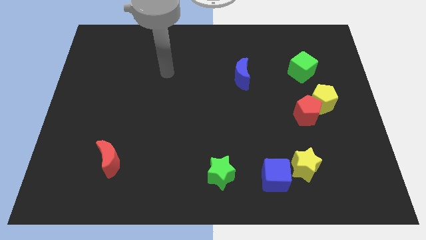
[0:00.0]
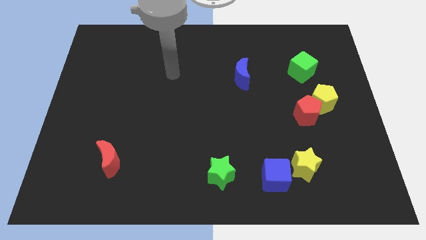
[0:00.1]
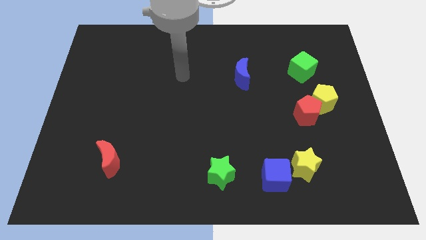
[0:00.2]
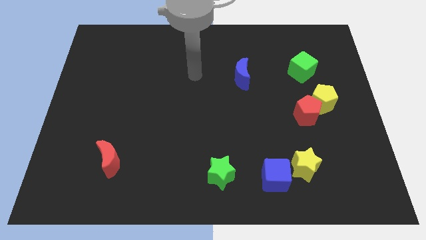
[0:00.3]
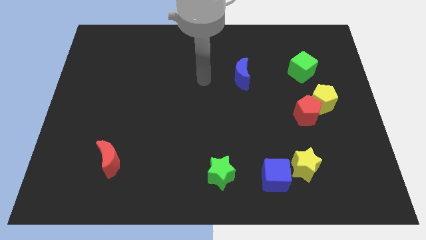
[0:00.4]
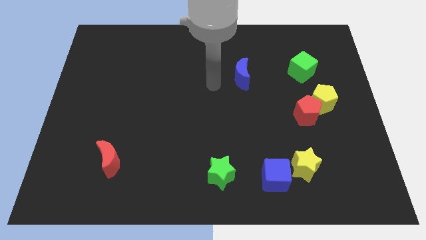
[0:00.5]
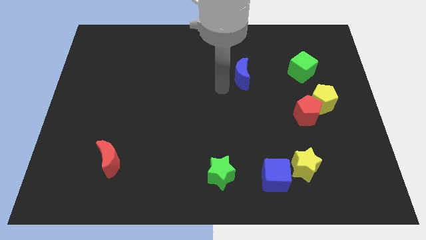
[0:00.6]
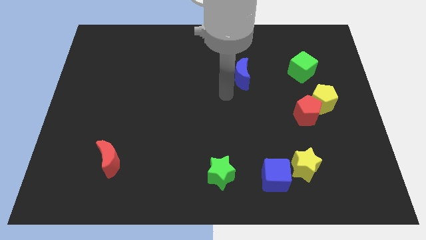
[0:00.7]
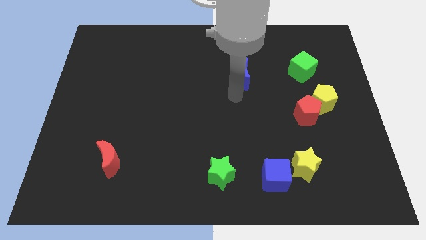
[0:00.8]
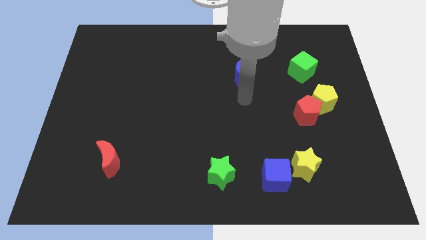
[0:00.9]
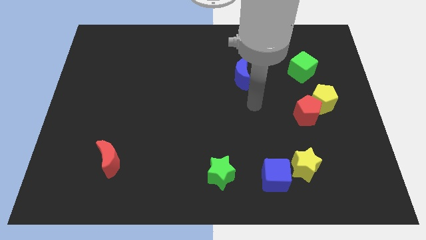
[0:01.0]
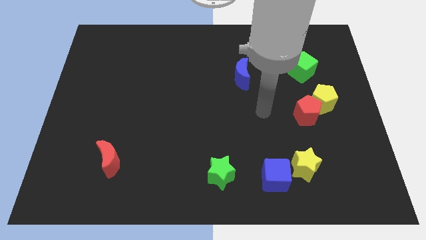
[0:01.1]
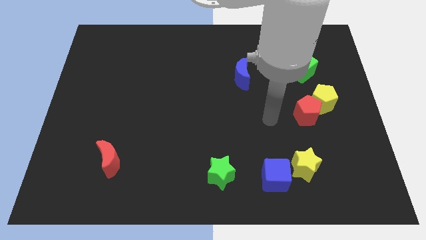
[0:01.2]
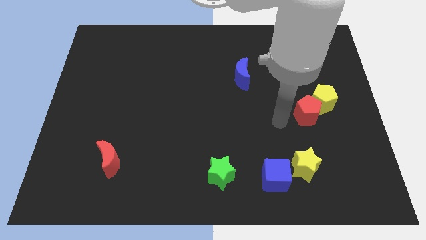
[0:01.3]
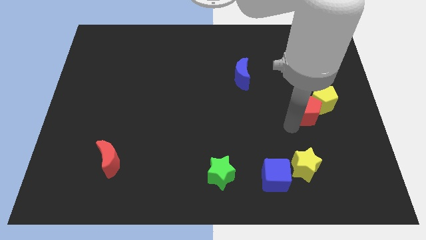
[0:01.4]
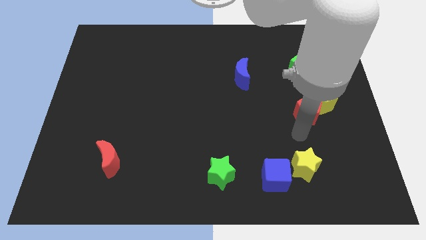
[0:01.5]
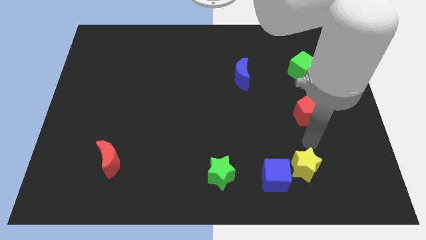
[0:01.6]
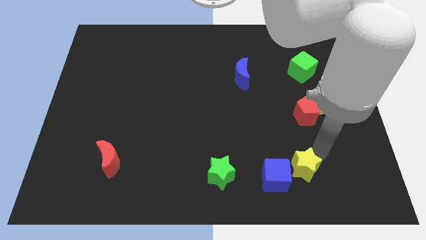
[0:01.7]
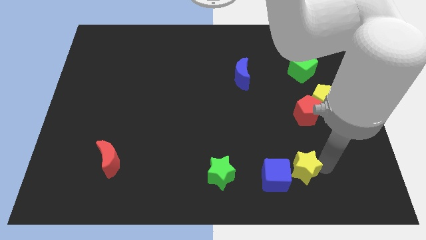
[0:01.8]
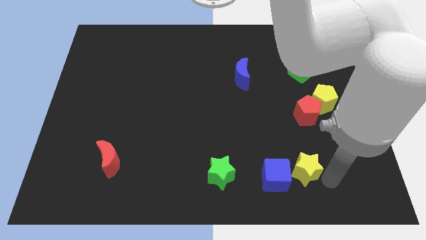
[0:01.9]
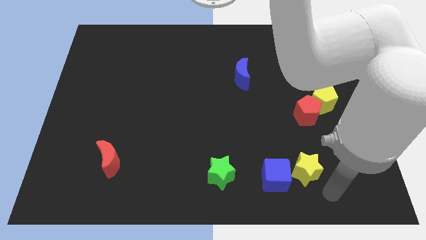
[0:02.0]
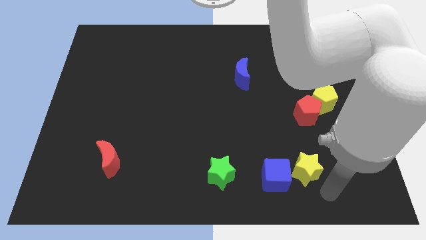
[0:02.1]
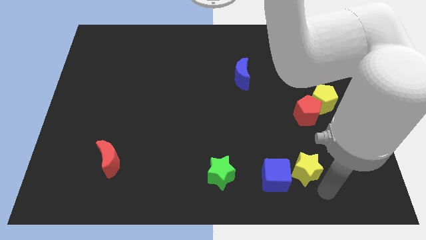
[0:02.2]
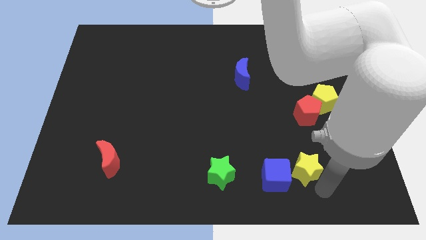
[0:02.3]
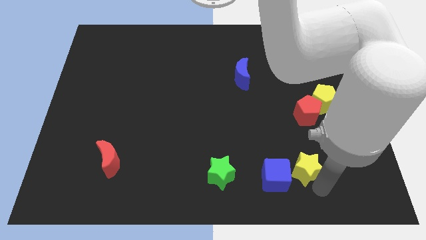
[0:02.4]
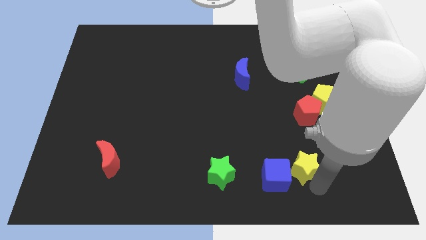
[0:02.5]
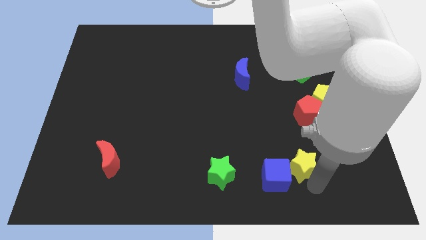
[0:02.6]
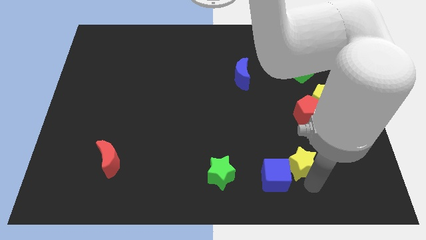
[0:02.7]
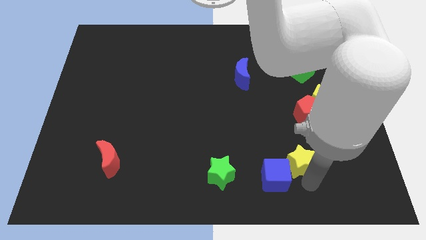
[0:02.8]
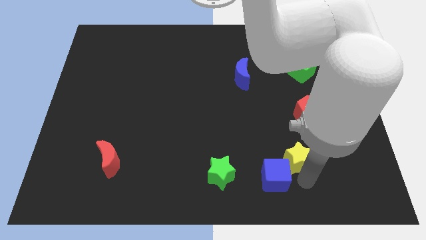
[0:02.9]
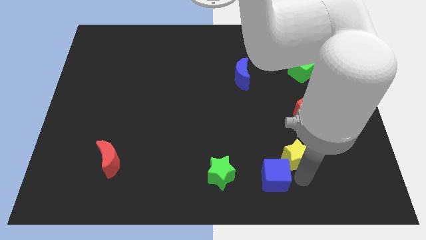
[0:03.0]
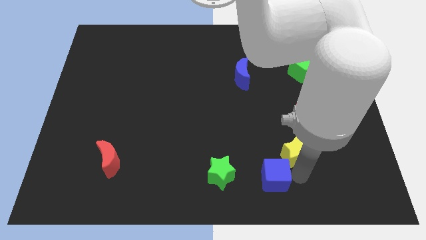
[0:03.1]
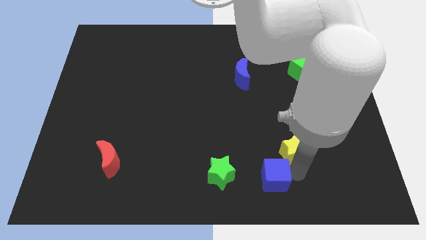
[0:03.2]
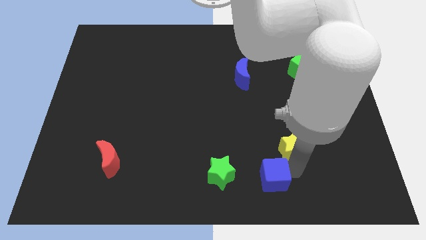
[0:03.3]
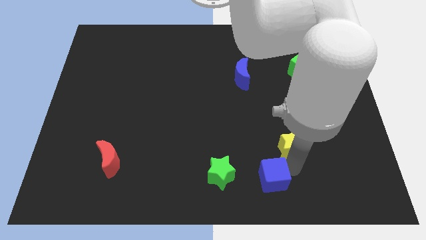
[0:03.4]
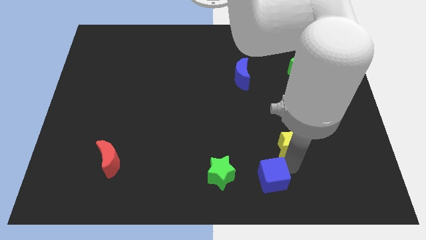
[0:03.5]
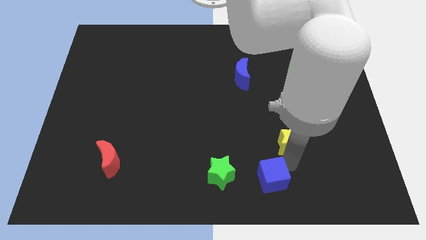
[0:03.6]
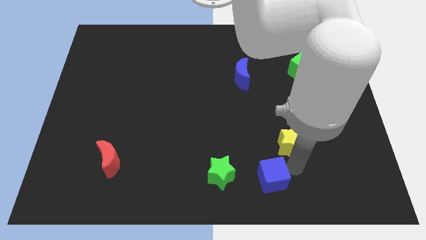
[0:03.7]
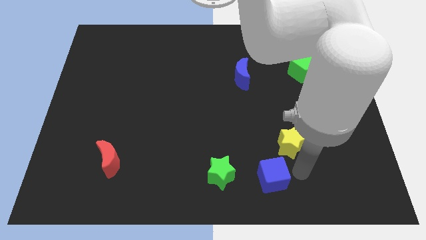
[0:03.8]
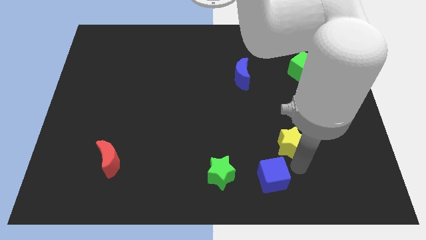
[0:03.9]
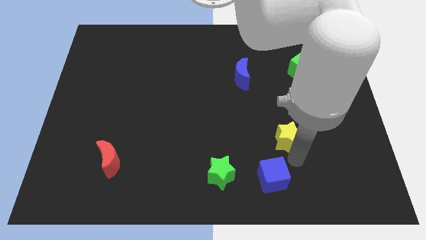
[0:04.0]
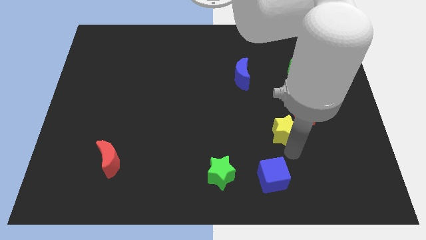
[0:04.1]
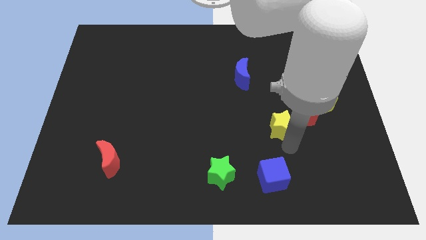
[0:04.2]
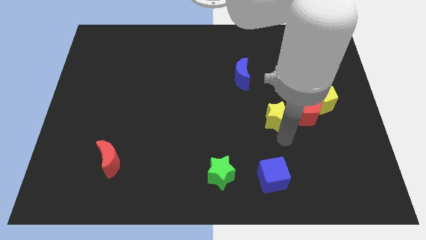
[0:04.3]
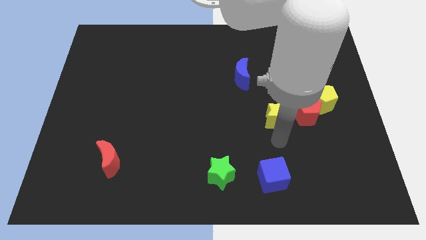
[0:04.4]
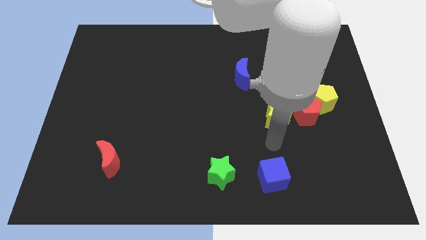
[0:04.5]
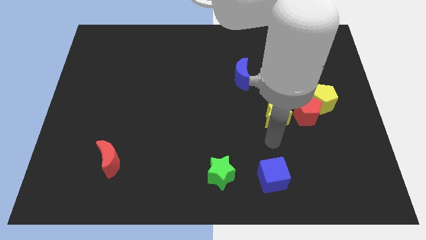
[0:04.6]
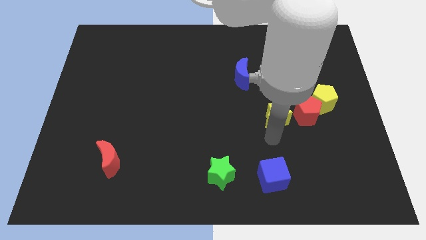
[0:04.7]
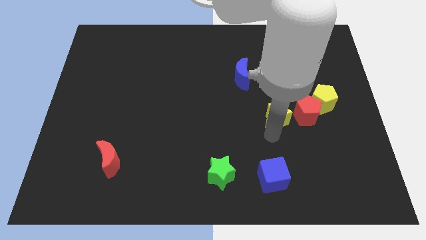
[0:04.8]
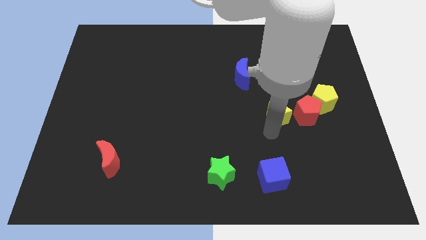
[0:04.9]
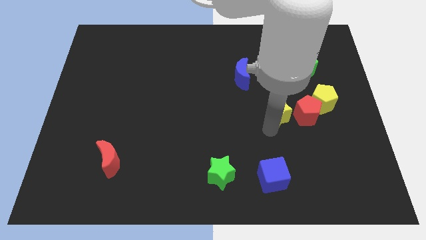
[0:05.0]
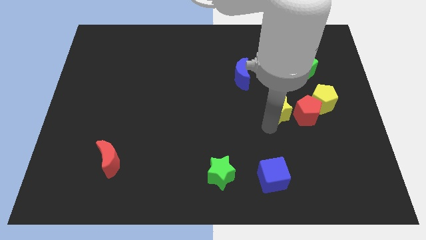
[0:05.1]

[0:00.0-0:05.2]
slide the yellow star to the top left of the red pentagon

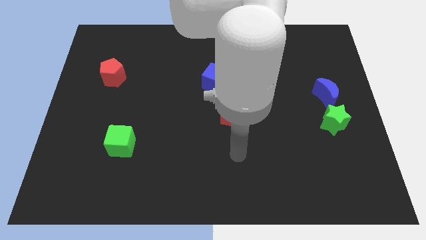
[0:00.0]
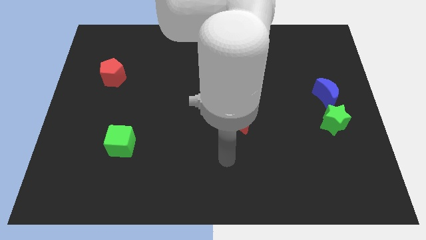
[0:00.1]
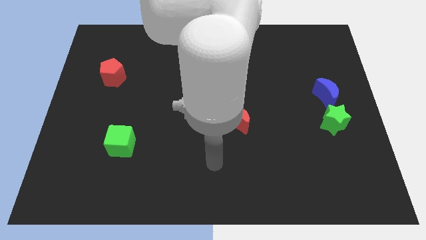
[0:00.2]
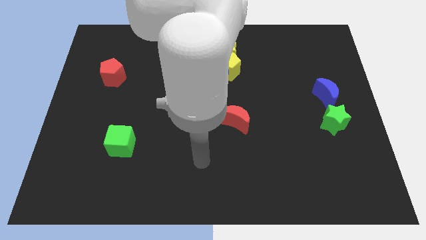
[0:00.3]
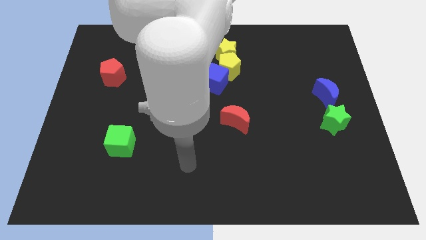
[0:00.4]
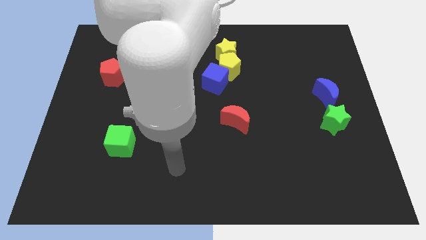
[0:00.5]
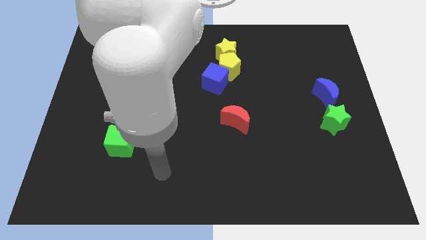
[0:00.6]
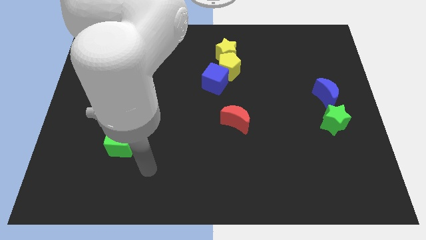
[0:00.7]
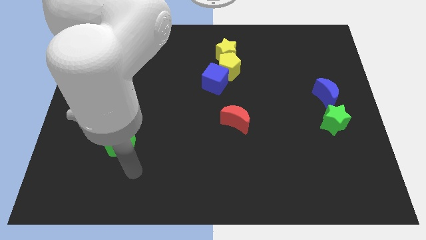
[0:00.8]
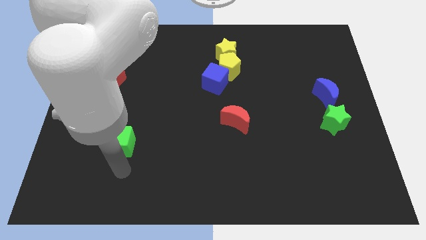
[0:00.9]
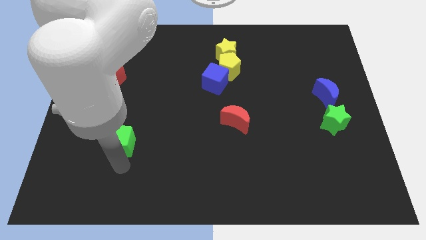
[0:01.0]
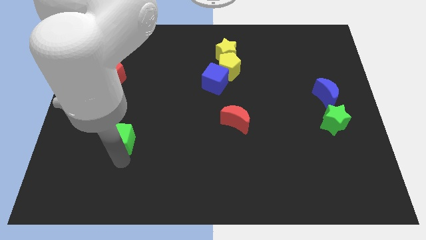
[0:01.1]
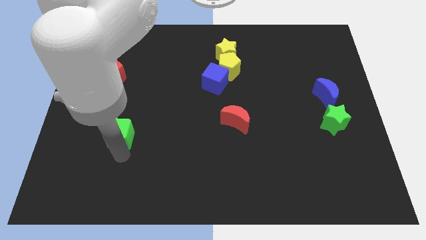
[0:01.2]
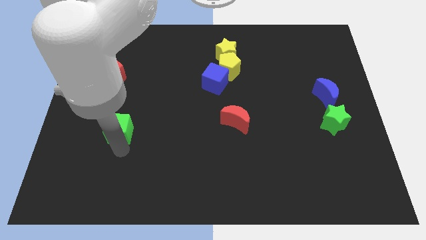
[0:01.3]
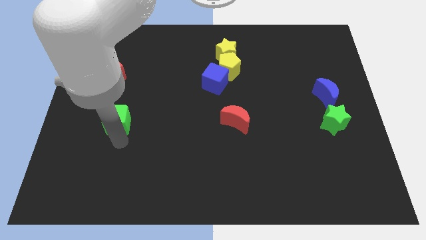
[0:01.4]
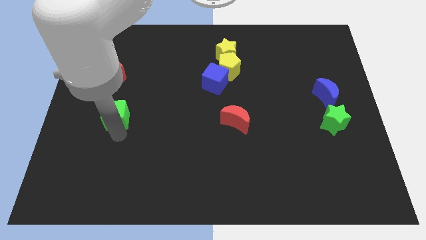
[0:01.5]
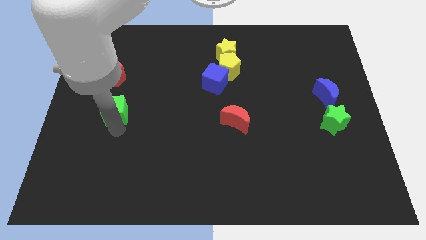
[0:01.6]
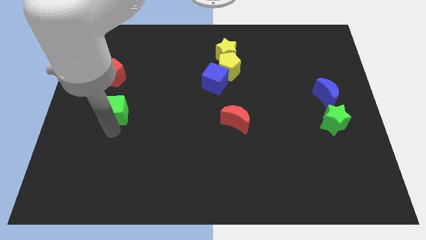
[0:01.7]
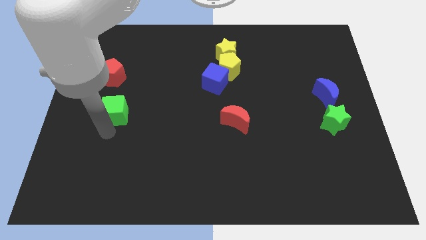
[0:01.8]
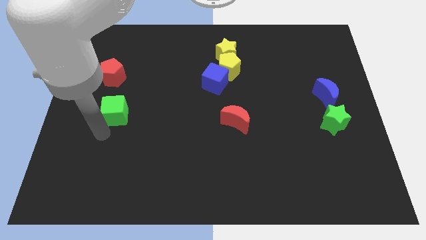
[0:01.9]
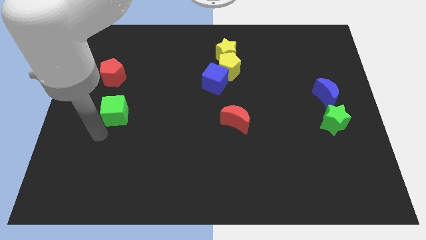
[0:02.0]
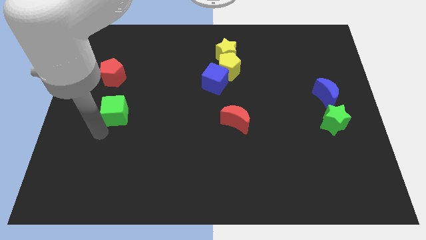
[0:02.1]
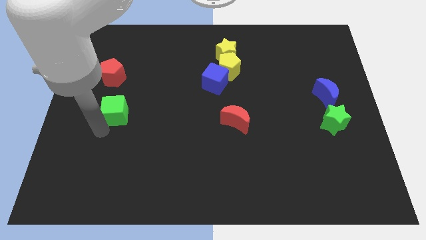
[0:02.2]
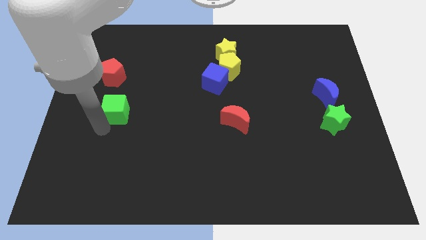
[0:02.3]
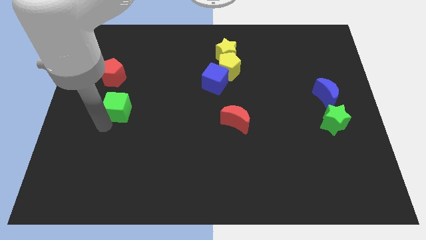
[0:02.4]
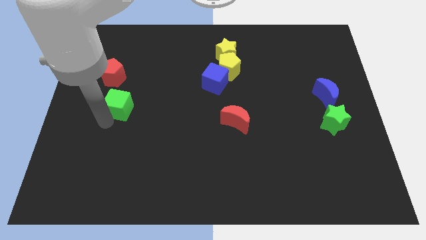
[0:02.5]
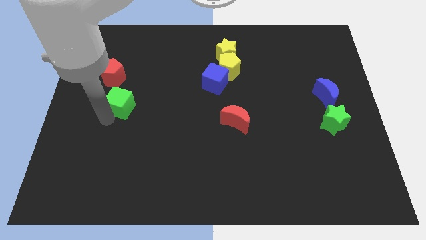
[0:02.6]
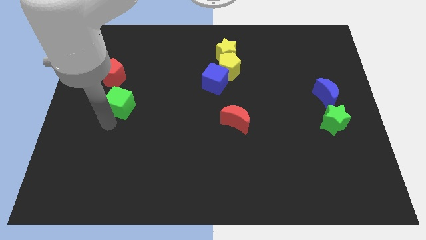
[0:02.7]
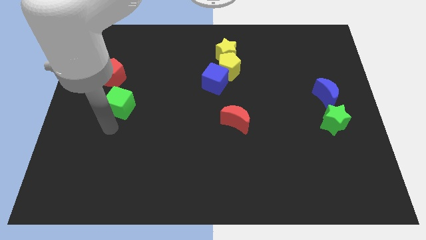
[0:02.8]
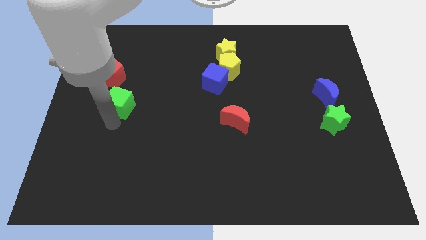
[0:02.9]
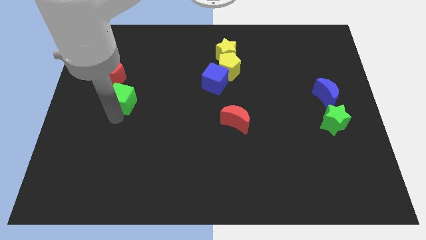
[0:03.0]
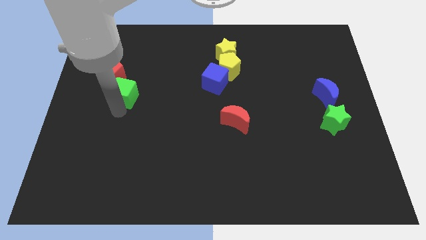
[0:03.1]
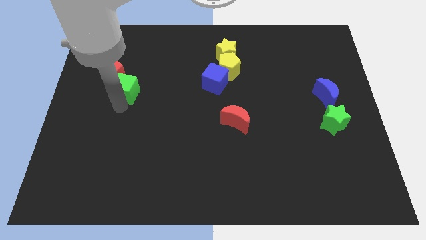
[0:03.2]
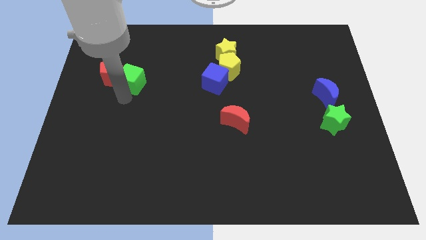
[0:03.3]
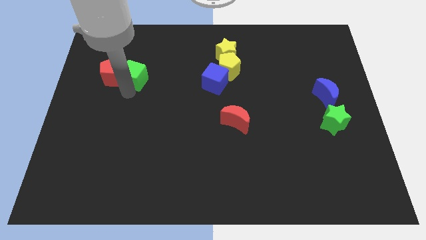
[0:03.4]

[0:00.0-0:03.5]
put the green cube to the top right side of the red pentagon
